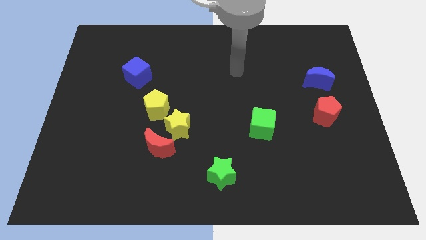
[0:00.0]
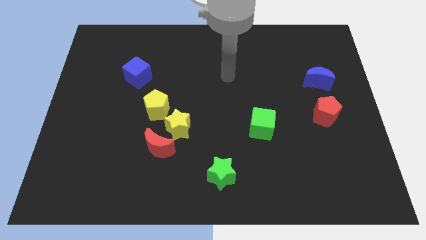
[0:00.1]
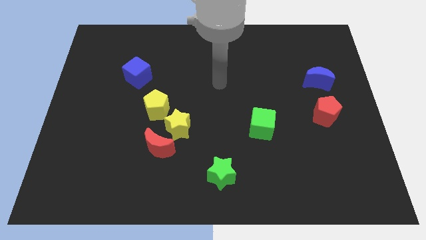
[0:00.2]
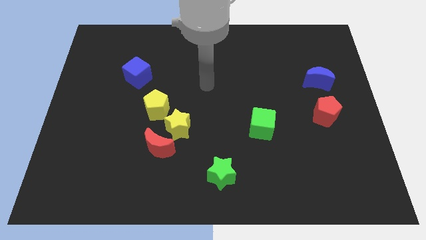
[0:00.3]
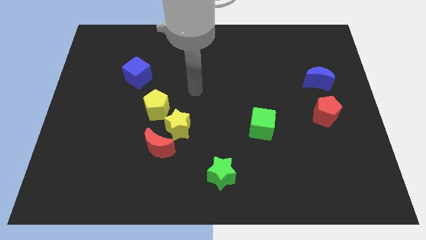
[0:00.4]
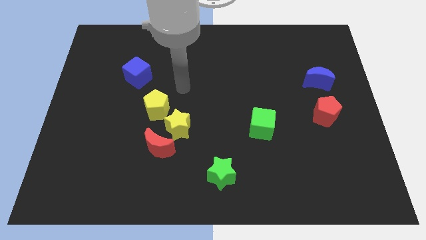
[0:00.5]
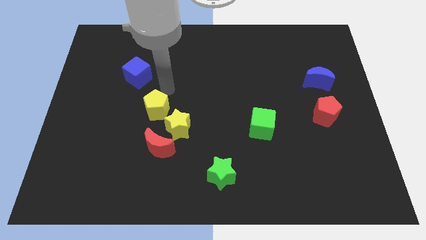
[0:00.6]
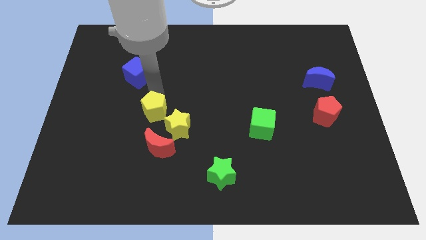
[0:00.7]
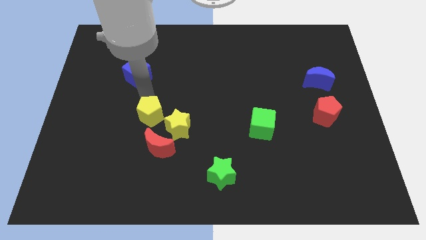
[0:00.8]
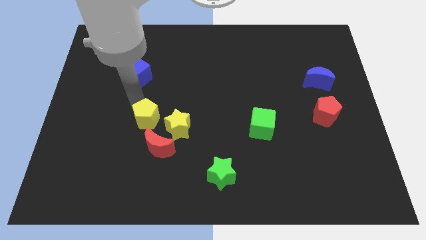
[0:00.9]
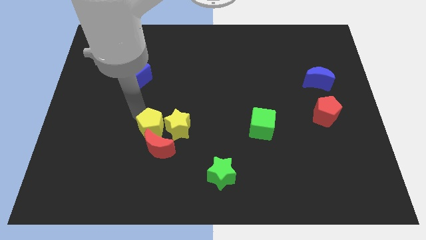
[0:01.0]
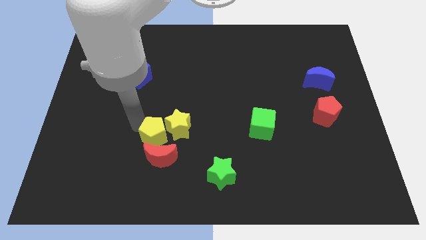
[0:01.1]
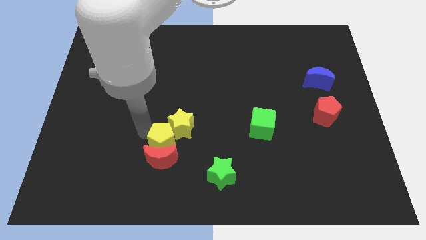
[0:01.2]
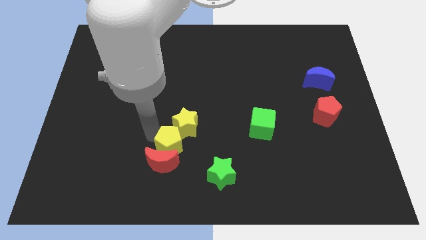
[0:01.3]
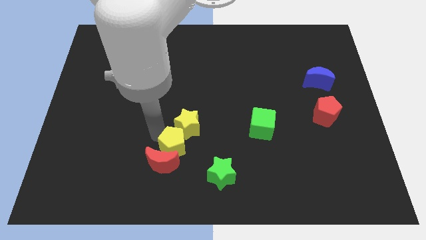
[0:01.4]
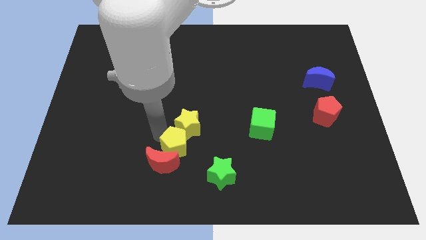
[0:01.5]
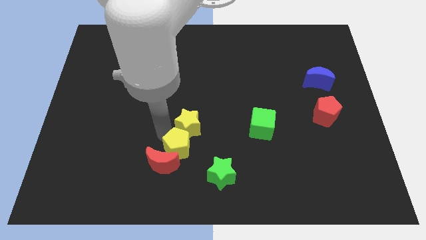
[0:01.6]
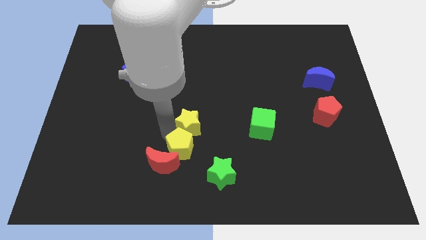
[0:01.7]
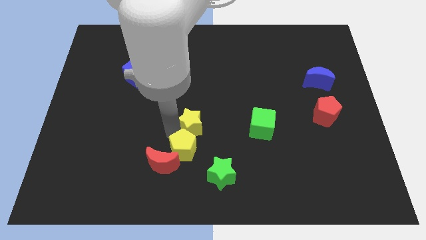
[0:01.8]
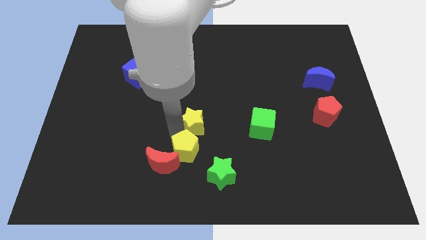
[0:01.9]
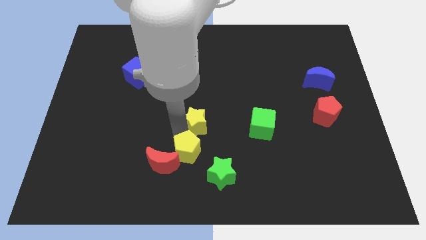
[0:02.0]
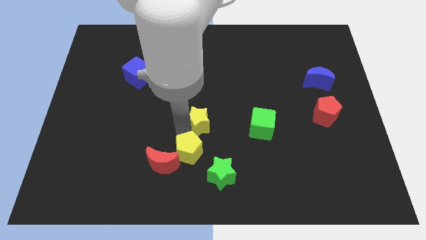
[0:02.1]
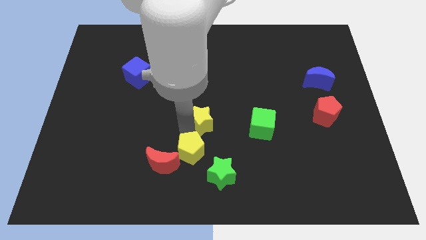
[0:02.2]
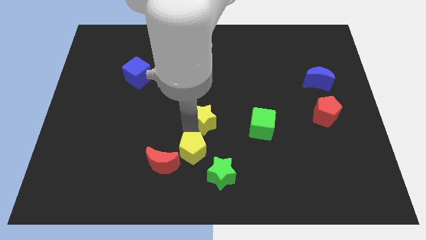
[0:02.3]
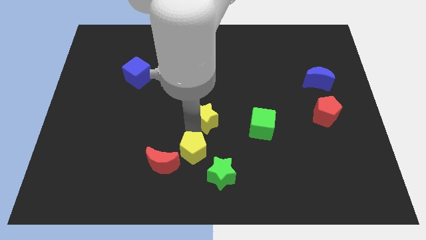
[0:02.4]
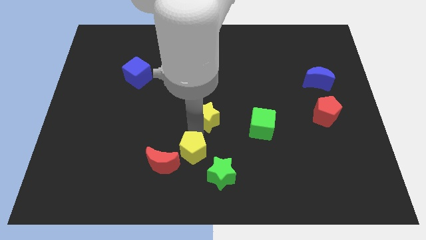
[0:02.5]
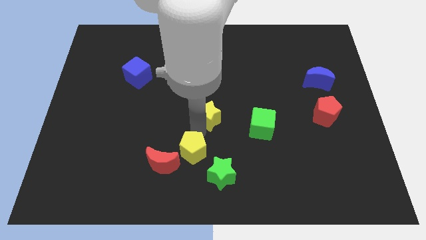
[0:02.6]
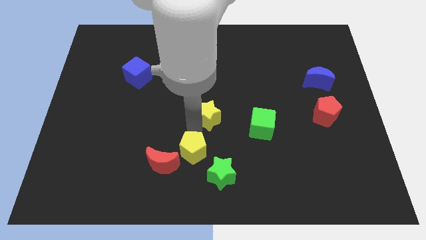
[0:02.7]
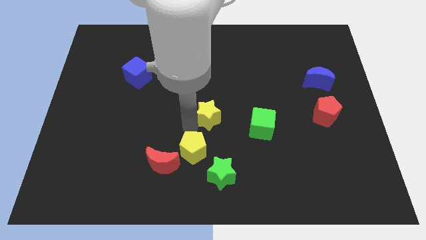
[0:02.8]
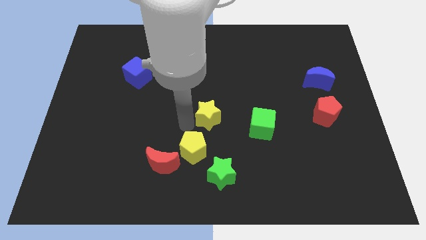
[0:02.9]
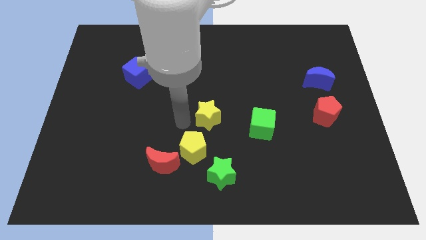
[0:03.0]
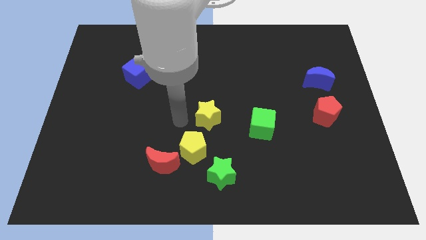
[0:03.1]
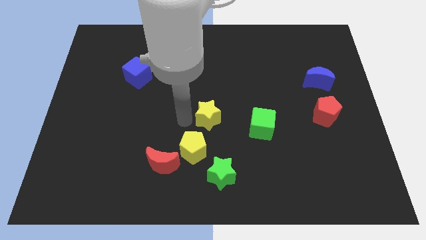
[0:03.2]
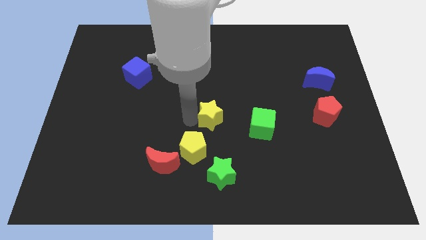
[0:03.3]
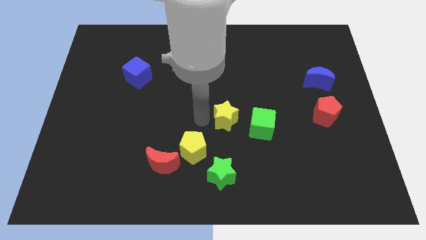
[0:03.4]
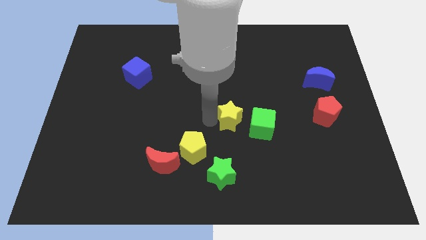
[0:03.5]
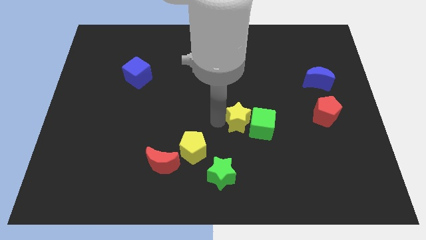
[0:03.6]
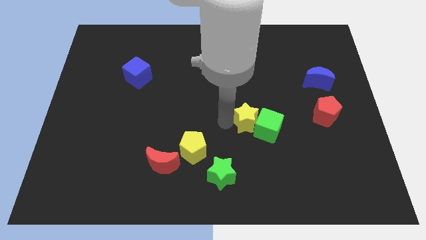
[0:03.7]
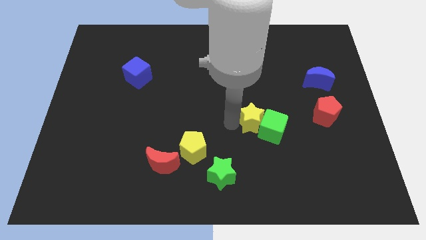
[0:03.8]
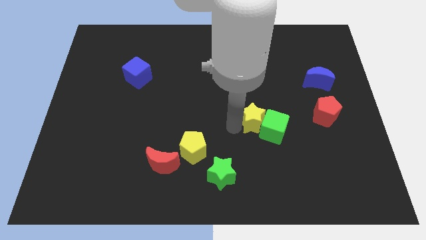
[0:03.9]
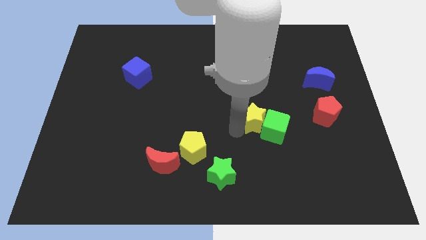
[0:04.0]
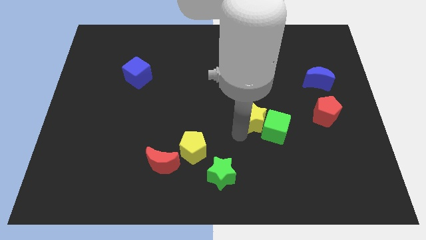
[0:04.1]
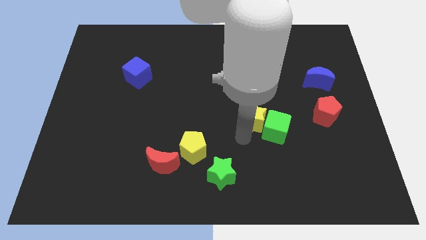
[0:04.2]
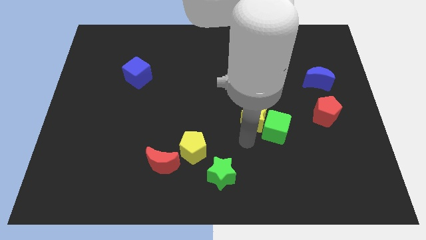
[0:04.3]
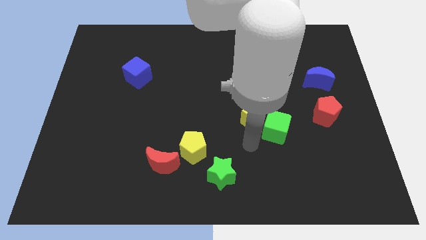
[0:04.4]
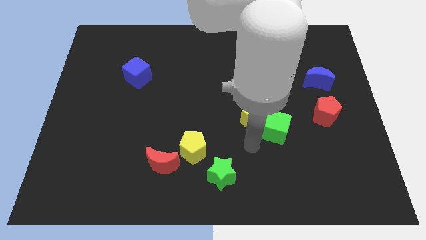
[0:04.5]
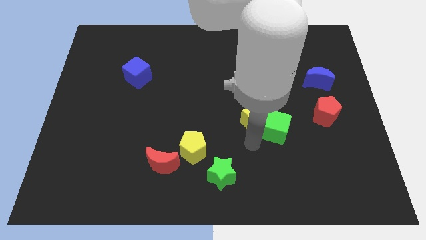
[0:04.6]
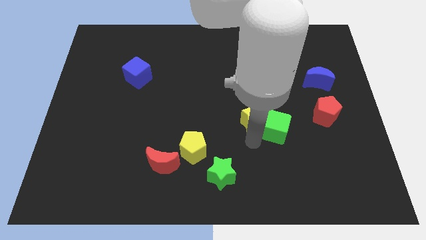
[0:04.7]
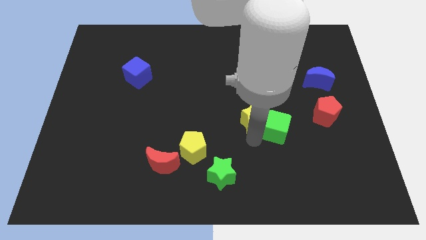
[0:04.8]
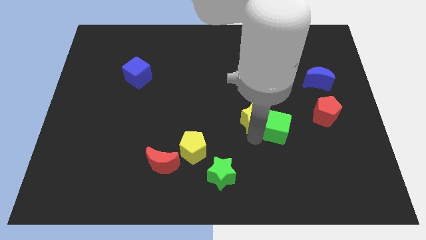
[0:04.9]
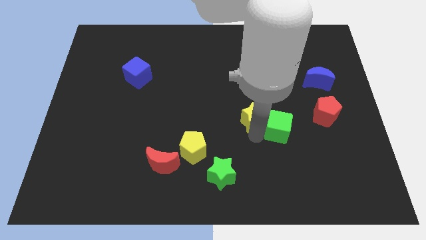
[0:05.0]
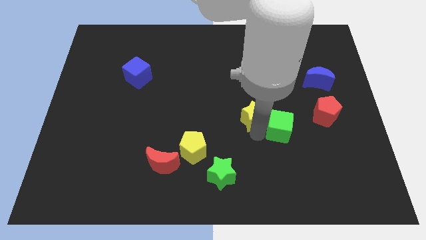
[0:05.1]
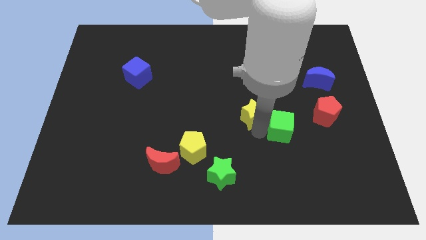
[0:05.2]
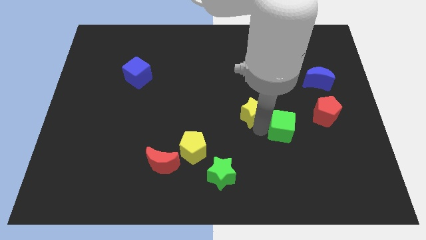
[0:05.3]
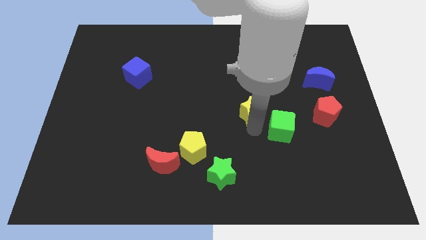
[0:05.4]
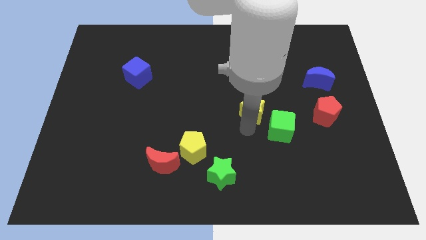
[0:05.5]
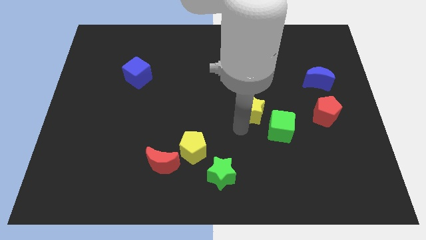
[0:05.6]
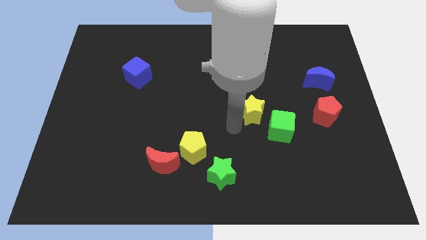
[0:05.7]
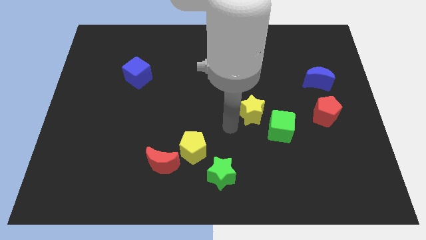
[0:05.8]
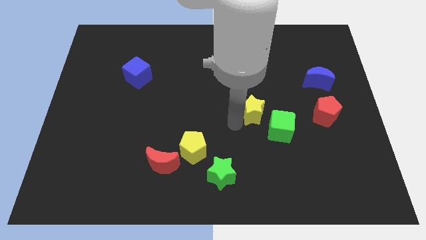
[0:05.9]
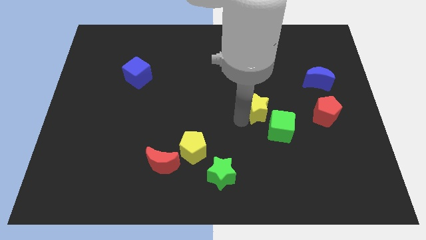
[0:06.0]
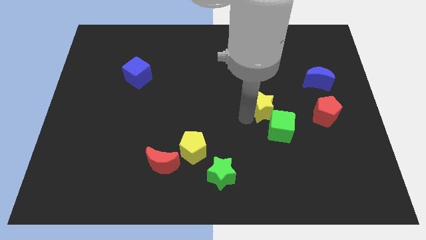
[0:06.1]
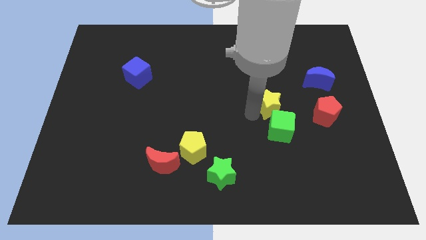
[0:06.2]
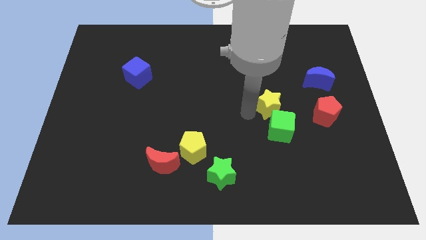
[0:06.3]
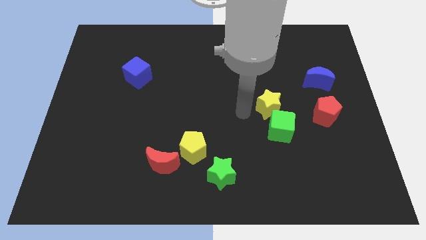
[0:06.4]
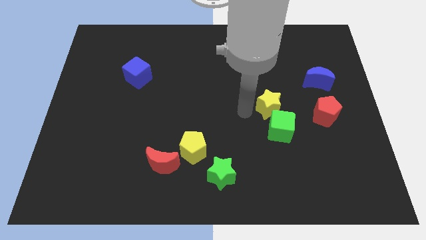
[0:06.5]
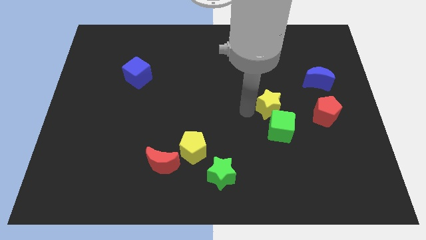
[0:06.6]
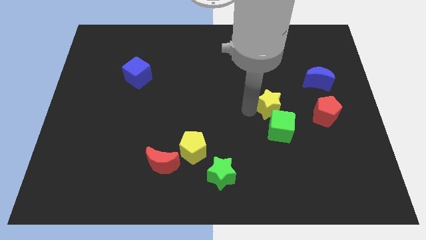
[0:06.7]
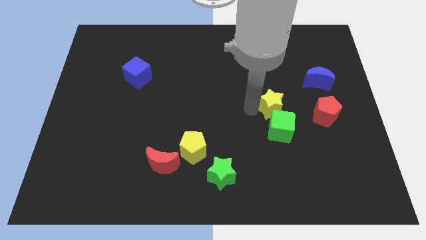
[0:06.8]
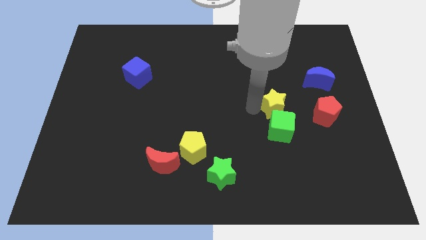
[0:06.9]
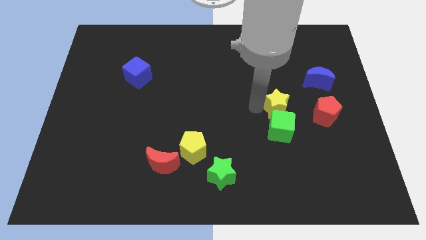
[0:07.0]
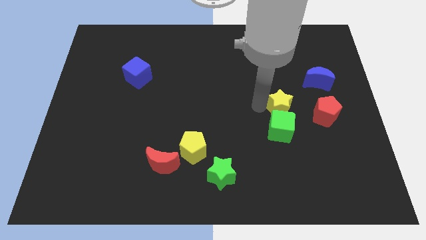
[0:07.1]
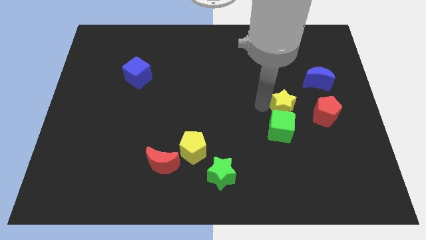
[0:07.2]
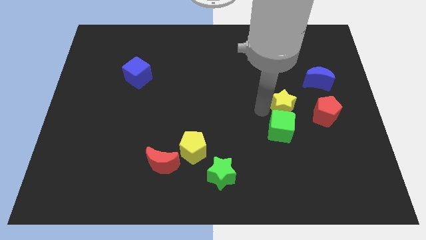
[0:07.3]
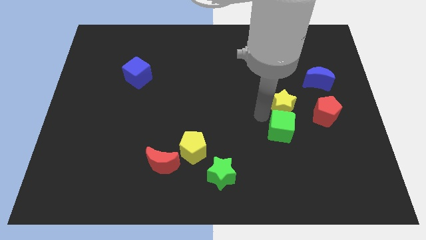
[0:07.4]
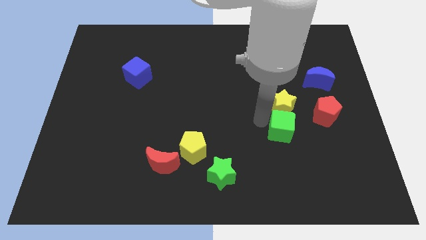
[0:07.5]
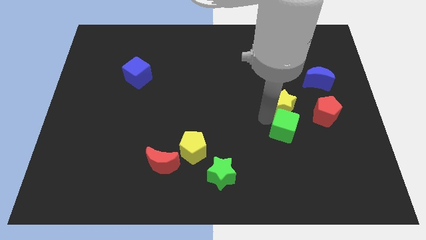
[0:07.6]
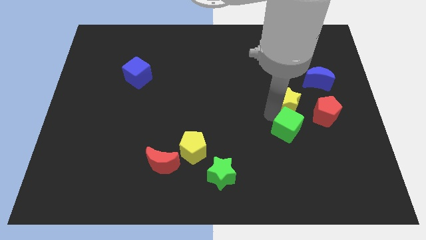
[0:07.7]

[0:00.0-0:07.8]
move the yellow star to the top left side of the red pentagon
